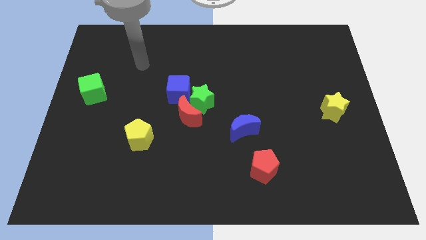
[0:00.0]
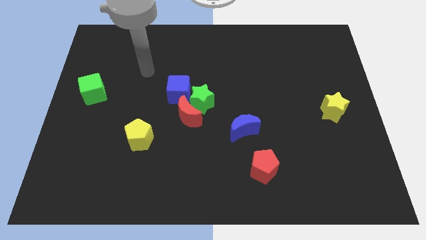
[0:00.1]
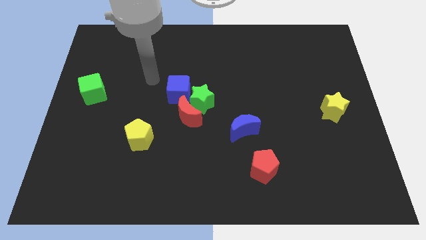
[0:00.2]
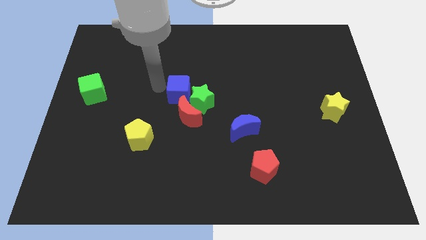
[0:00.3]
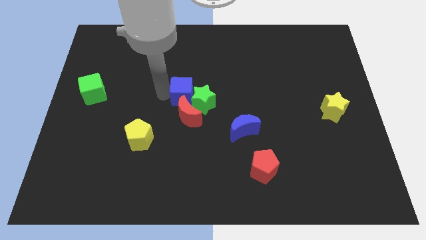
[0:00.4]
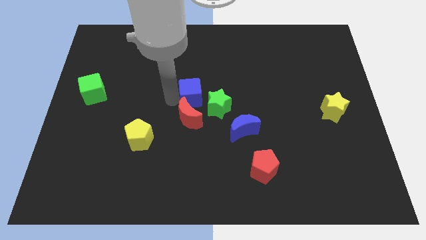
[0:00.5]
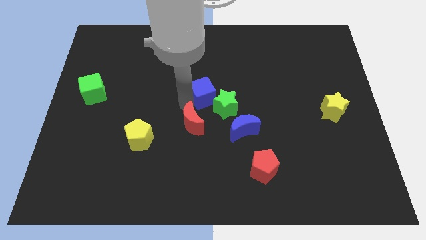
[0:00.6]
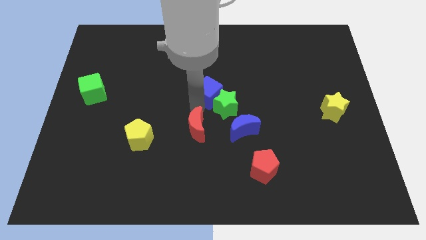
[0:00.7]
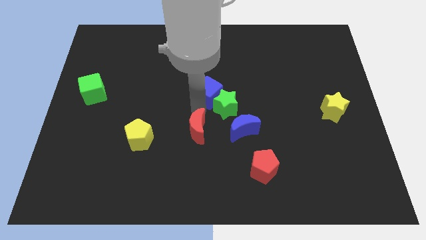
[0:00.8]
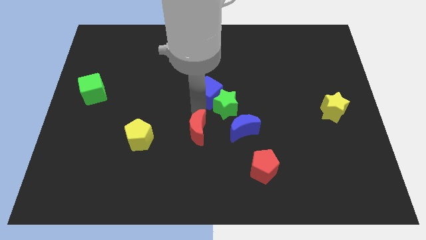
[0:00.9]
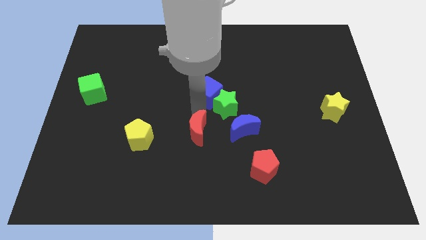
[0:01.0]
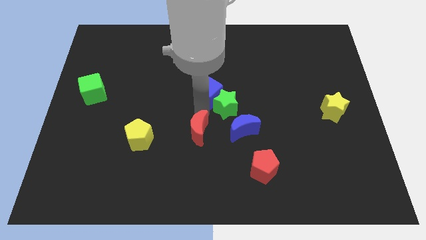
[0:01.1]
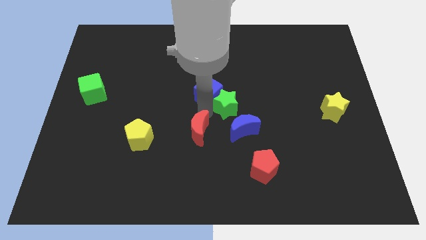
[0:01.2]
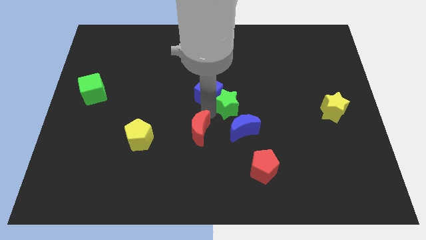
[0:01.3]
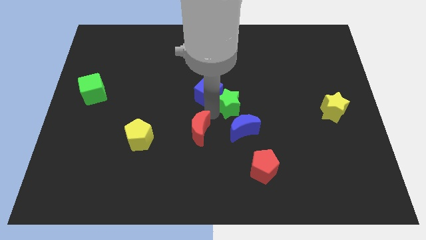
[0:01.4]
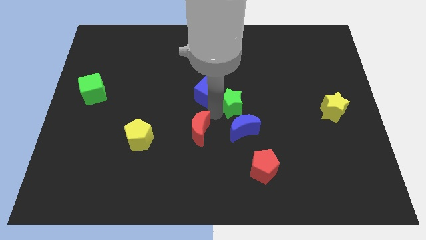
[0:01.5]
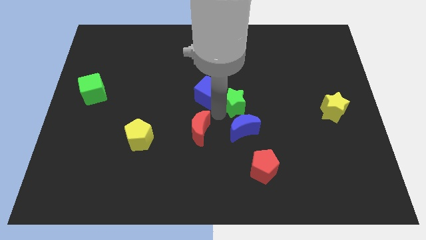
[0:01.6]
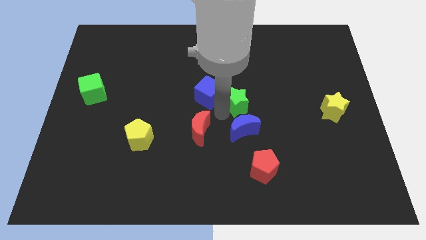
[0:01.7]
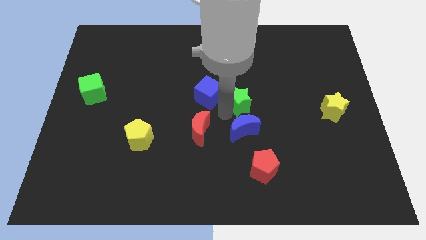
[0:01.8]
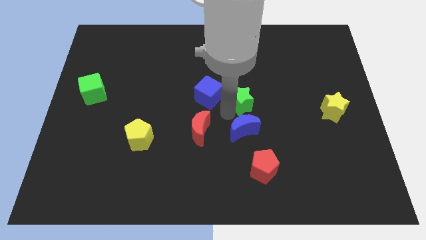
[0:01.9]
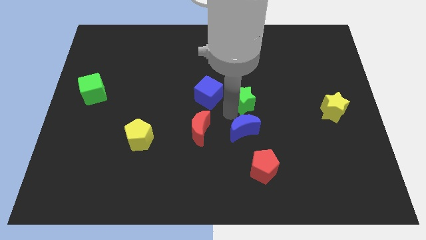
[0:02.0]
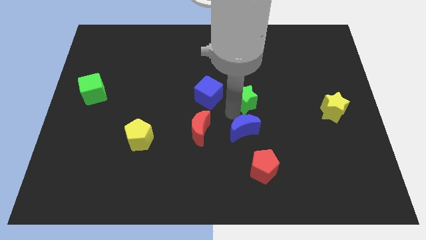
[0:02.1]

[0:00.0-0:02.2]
separate the green star from the red moon and blue cube

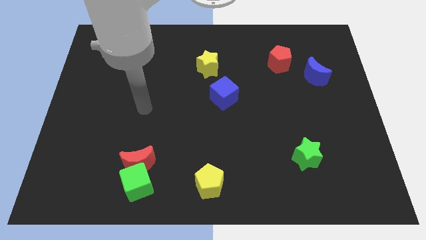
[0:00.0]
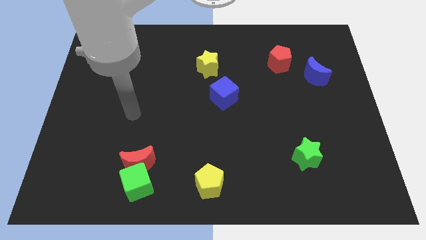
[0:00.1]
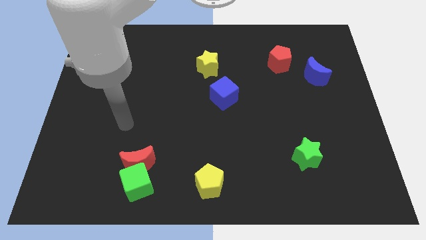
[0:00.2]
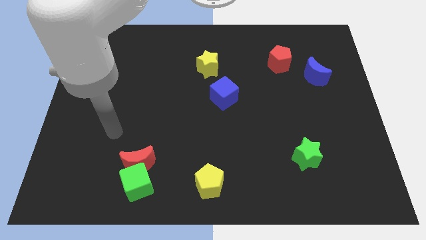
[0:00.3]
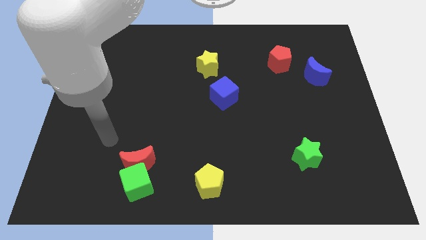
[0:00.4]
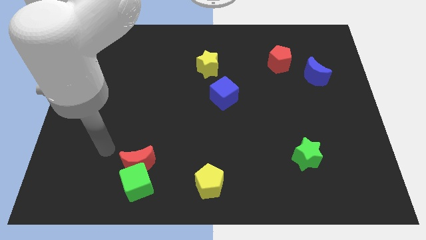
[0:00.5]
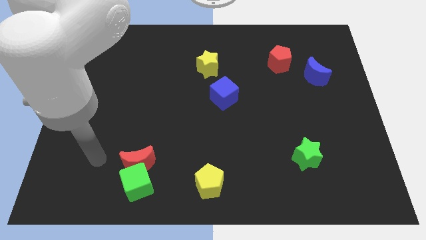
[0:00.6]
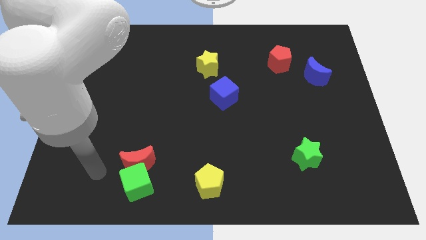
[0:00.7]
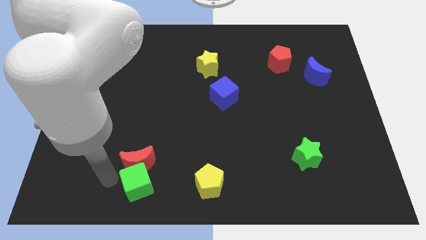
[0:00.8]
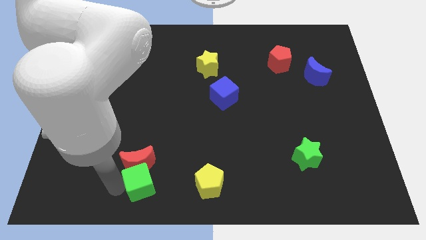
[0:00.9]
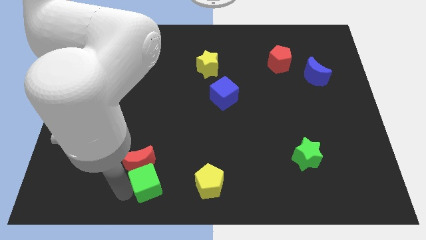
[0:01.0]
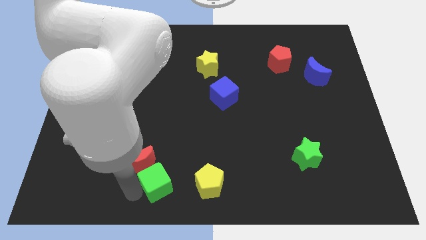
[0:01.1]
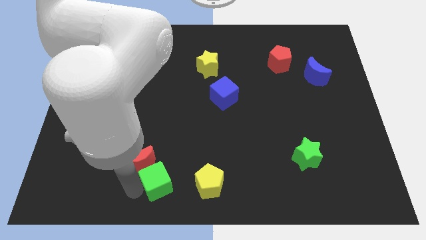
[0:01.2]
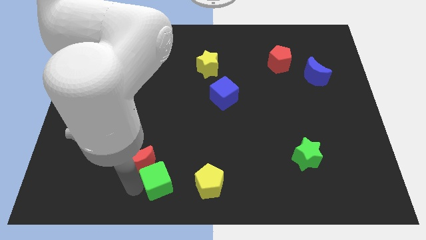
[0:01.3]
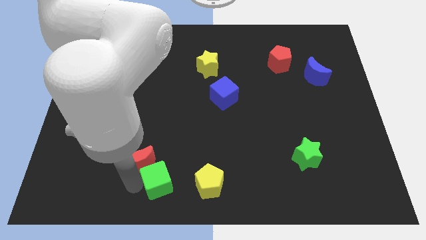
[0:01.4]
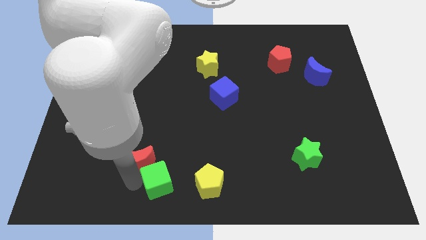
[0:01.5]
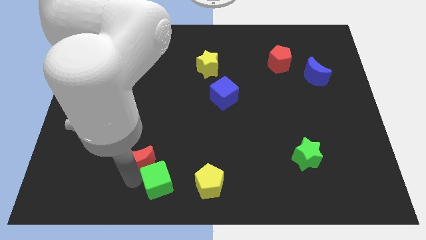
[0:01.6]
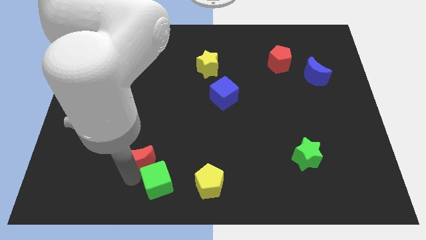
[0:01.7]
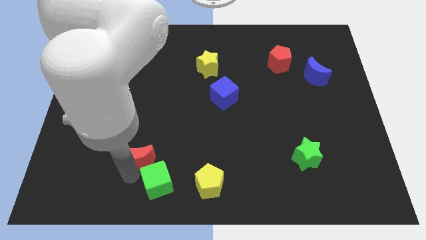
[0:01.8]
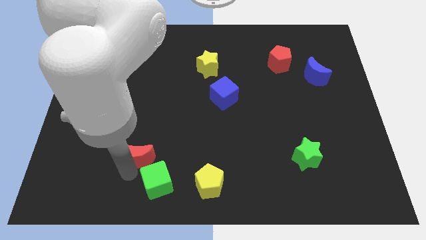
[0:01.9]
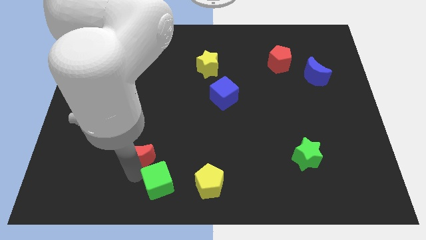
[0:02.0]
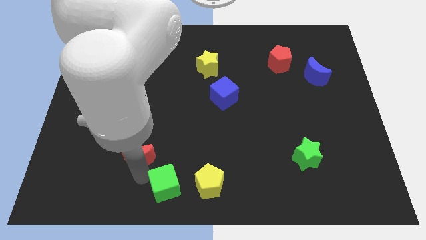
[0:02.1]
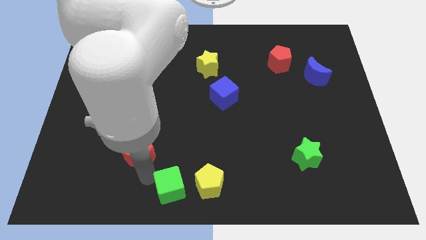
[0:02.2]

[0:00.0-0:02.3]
move the red moon away from the green cube

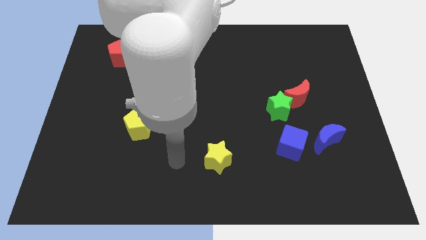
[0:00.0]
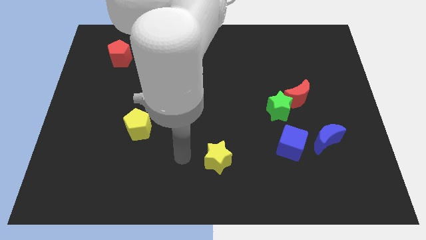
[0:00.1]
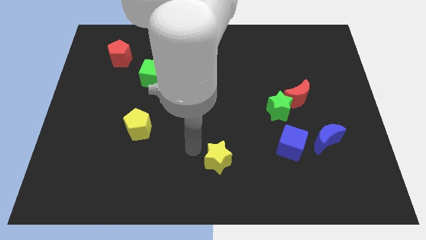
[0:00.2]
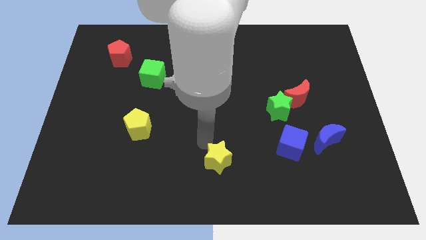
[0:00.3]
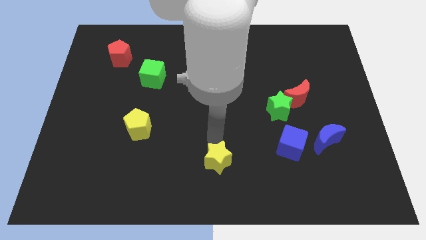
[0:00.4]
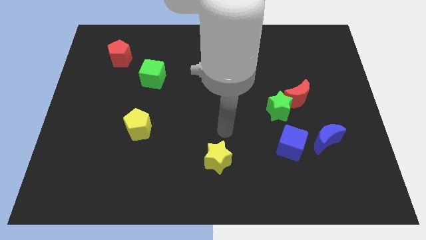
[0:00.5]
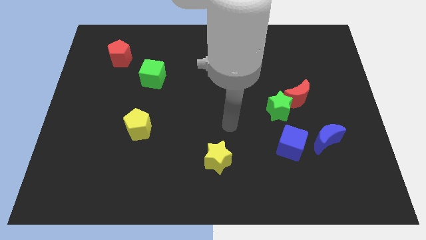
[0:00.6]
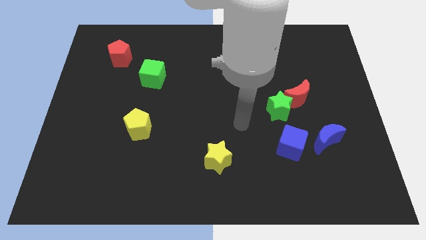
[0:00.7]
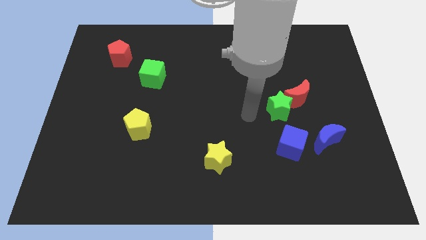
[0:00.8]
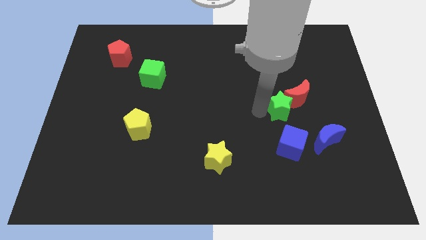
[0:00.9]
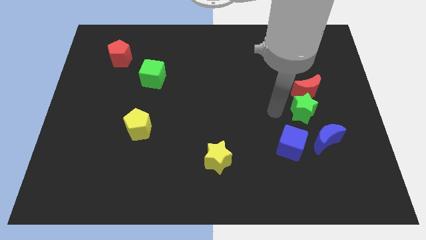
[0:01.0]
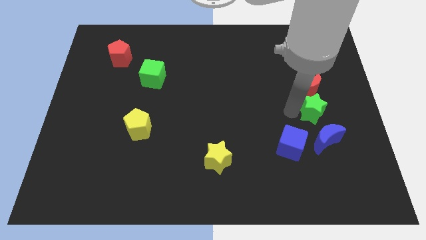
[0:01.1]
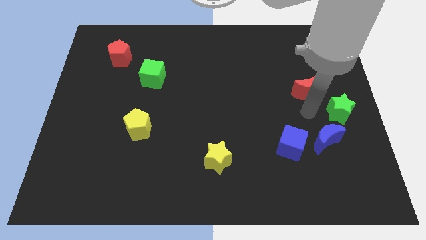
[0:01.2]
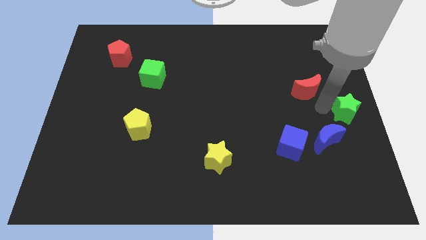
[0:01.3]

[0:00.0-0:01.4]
separate the red moon from the green star

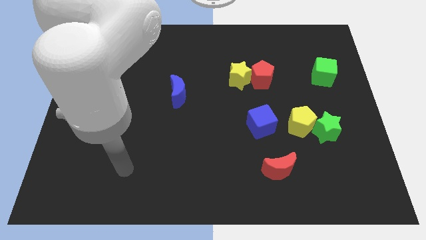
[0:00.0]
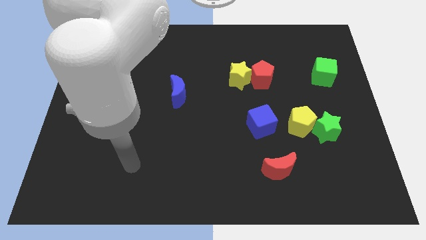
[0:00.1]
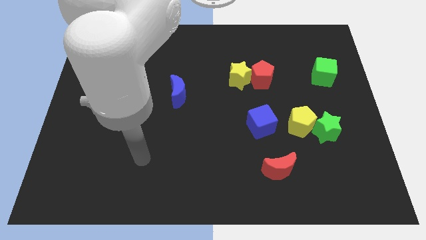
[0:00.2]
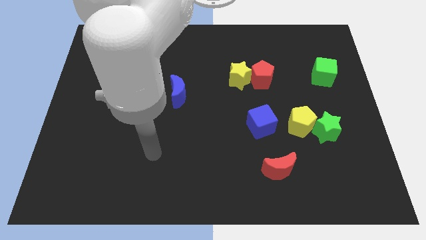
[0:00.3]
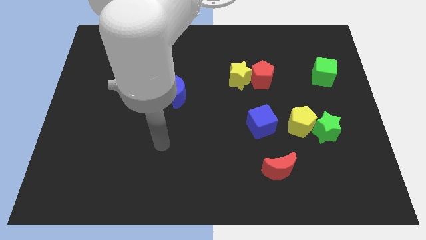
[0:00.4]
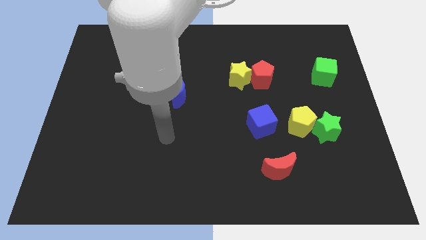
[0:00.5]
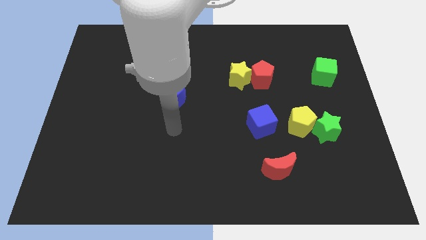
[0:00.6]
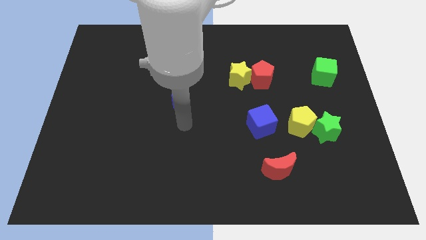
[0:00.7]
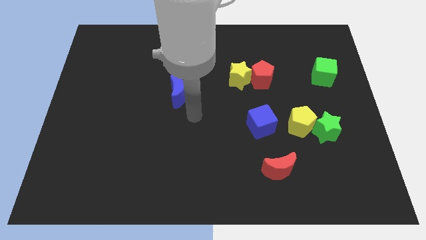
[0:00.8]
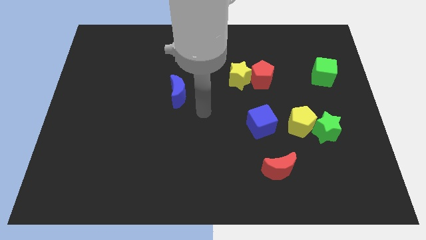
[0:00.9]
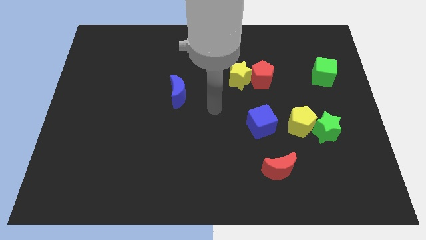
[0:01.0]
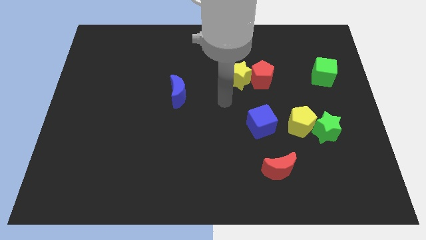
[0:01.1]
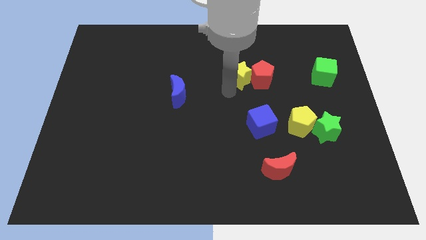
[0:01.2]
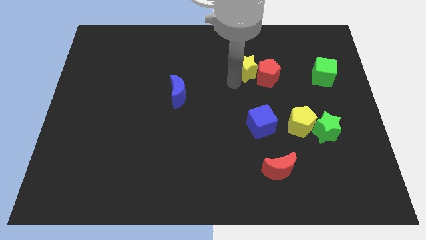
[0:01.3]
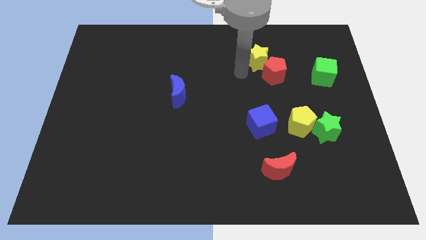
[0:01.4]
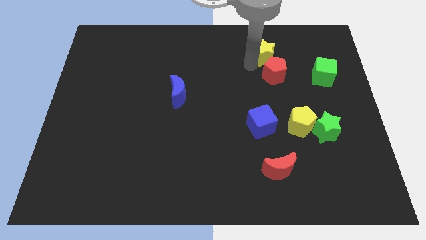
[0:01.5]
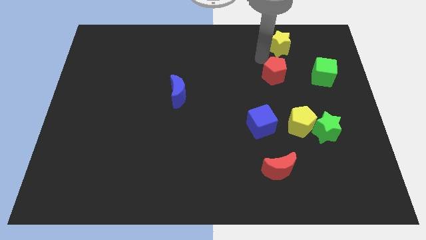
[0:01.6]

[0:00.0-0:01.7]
move the red pentagon away from the yellow star

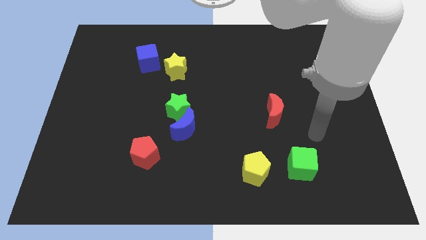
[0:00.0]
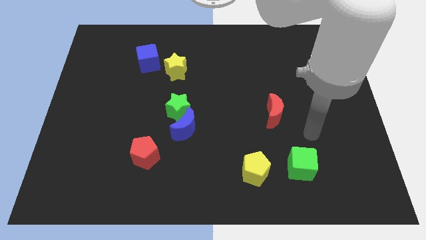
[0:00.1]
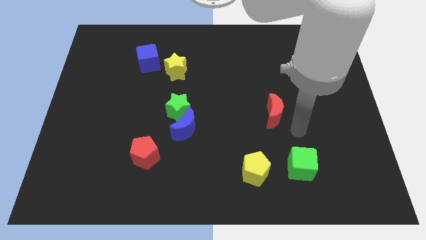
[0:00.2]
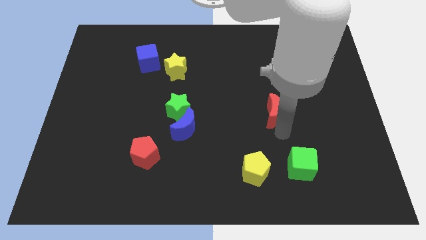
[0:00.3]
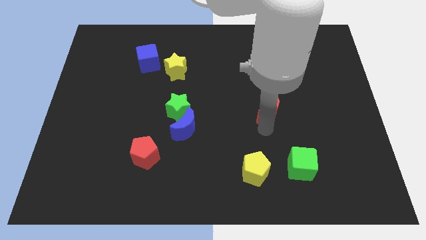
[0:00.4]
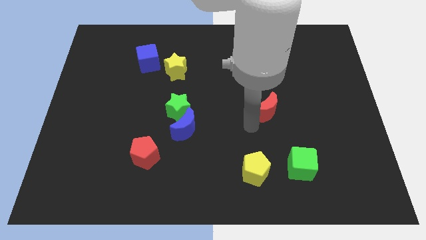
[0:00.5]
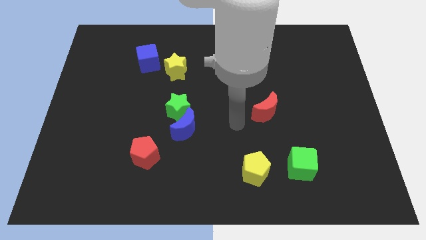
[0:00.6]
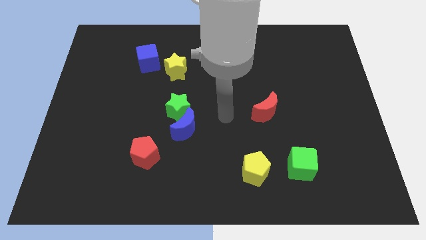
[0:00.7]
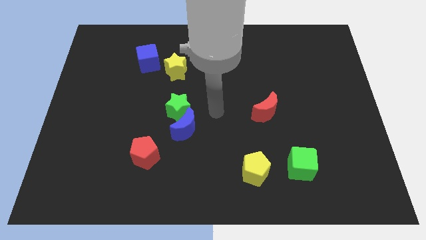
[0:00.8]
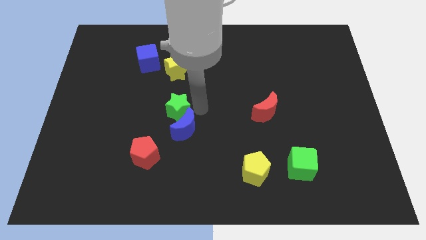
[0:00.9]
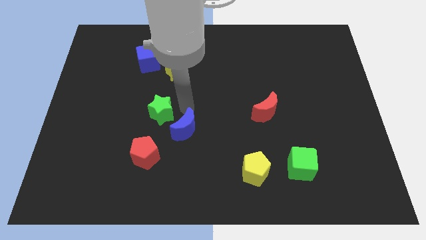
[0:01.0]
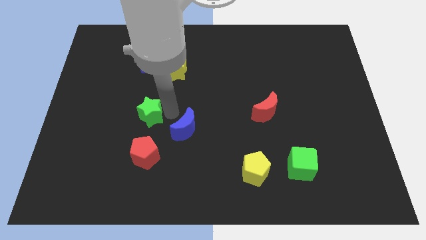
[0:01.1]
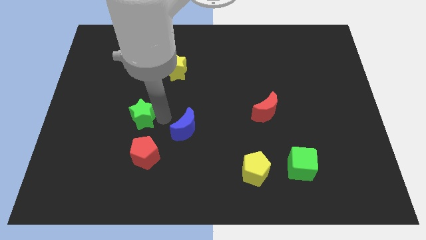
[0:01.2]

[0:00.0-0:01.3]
pull the blue moon apart from the green star

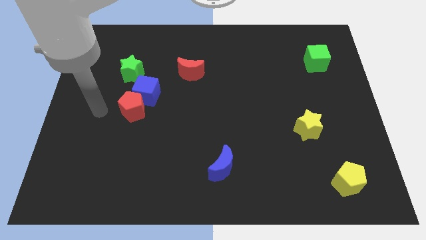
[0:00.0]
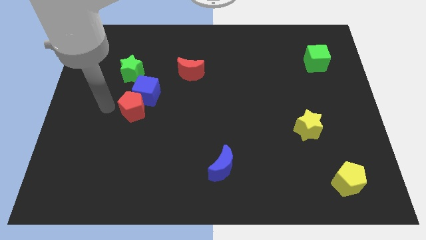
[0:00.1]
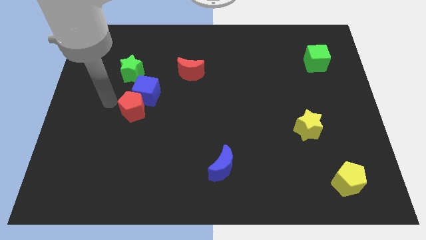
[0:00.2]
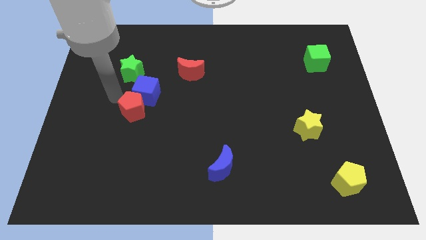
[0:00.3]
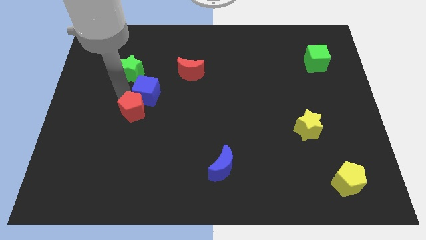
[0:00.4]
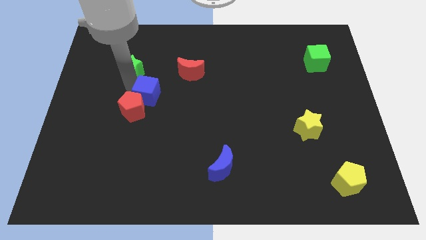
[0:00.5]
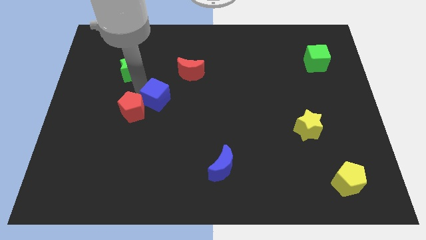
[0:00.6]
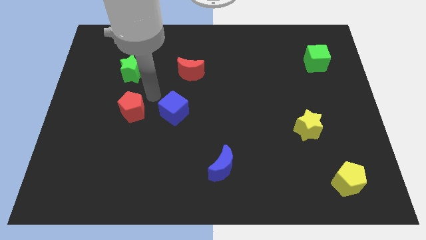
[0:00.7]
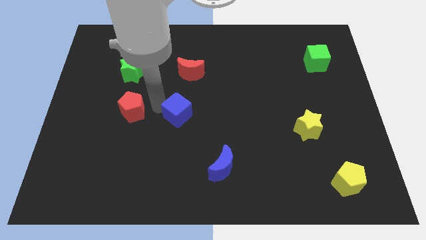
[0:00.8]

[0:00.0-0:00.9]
move the red pentagon away from the blue cube
